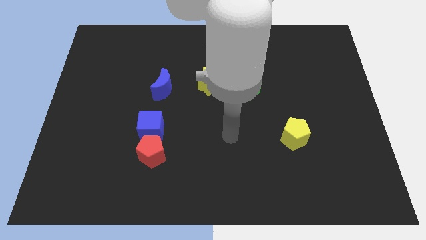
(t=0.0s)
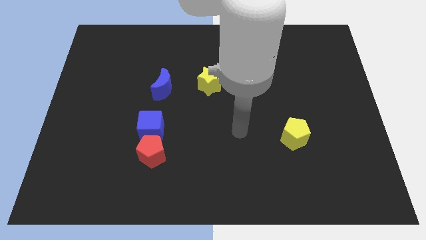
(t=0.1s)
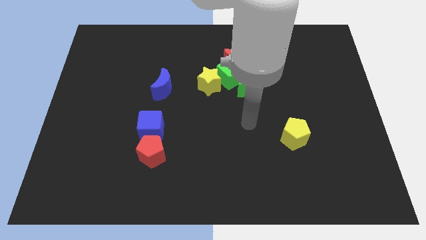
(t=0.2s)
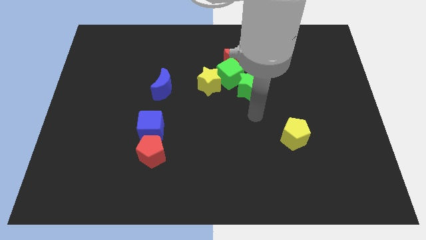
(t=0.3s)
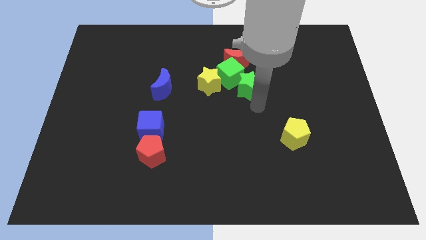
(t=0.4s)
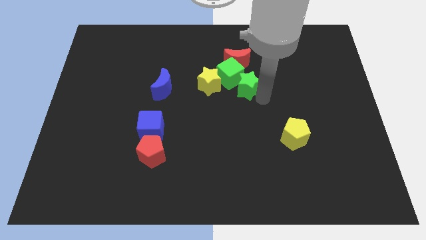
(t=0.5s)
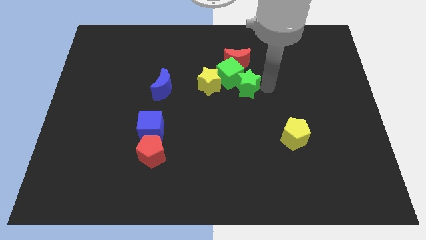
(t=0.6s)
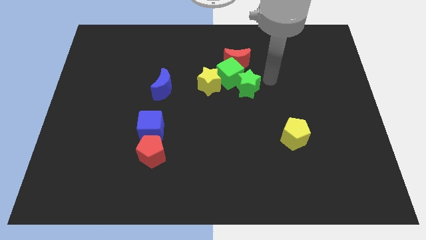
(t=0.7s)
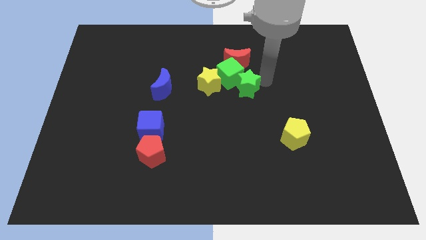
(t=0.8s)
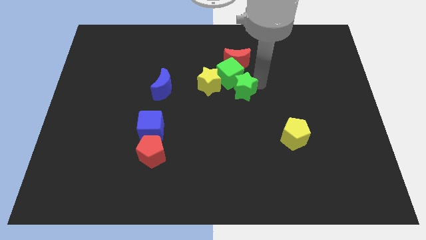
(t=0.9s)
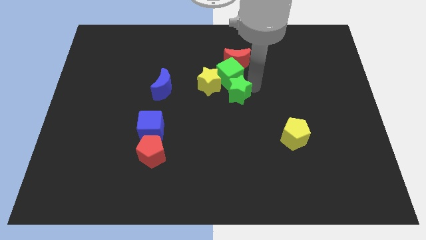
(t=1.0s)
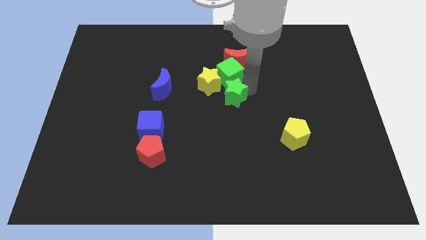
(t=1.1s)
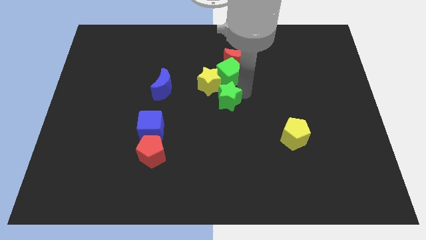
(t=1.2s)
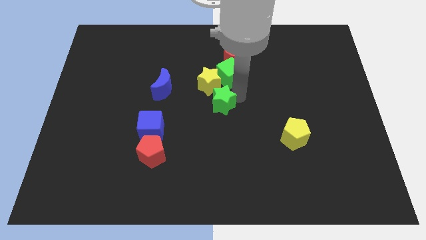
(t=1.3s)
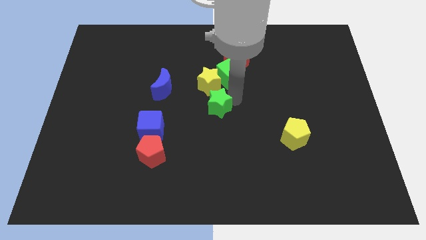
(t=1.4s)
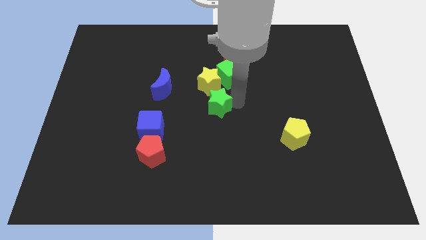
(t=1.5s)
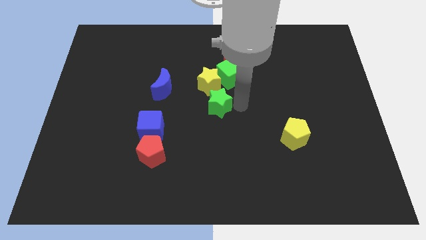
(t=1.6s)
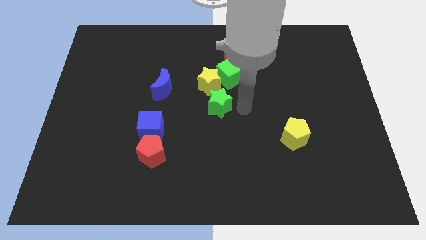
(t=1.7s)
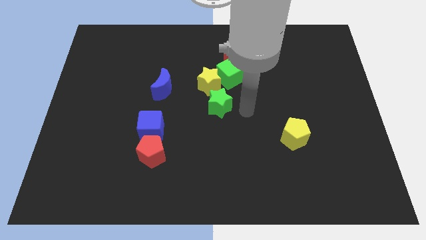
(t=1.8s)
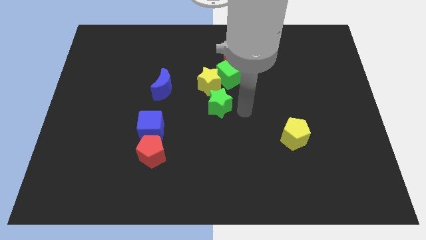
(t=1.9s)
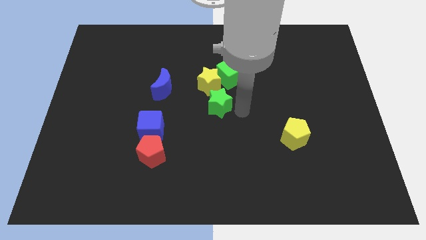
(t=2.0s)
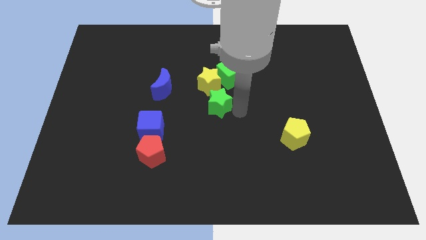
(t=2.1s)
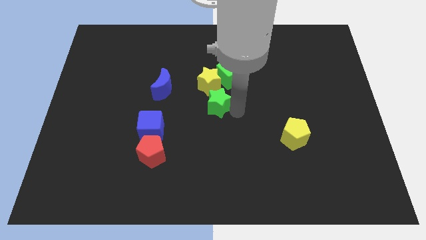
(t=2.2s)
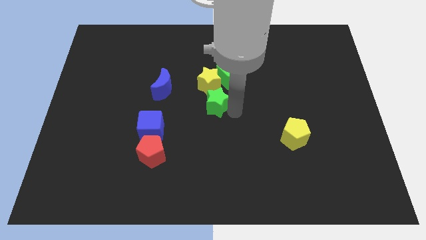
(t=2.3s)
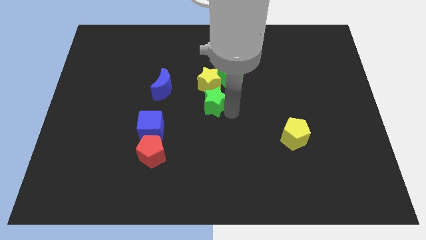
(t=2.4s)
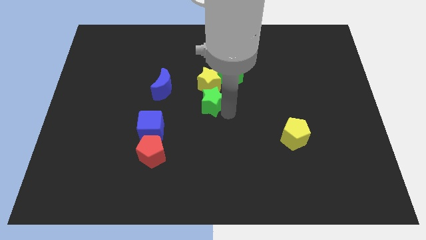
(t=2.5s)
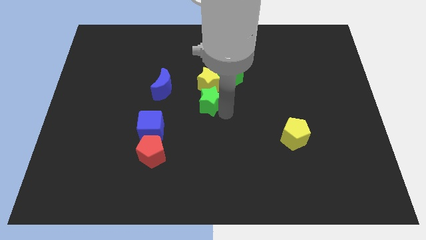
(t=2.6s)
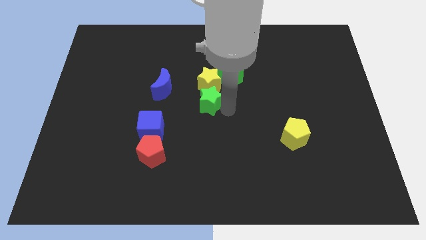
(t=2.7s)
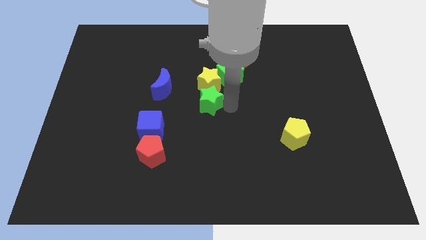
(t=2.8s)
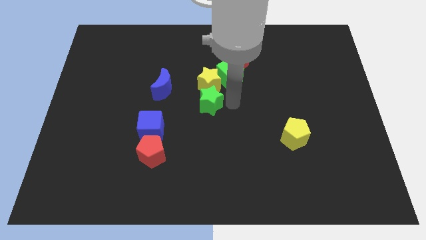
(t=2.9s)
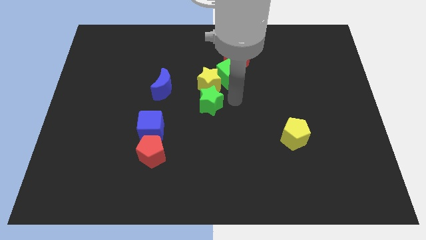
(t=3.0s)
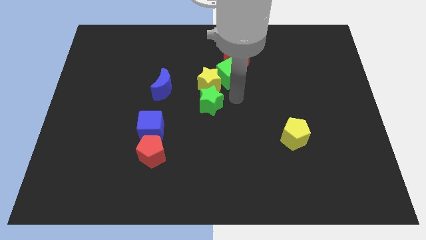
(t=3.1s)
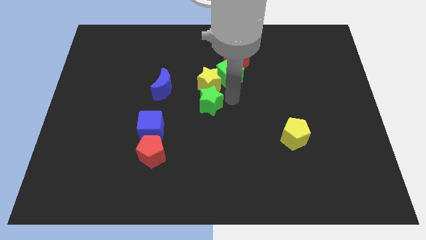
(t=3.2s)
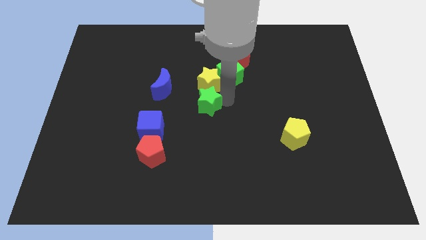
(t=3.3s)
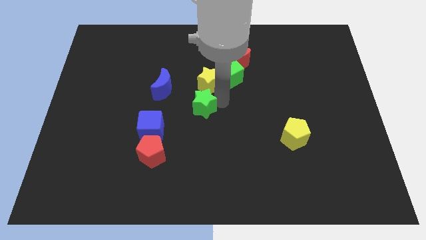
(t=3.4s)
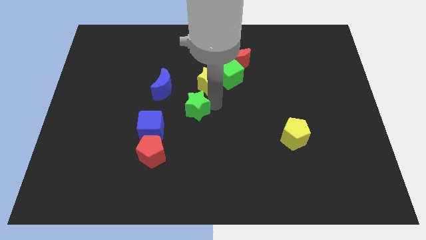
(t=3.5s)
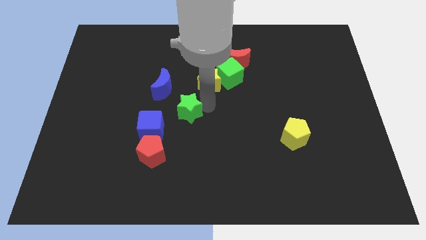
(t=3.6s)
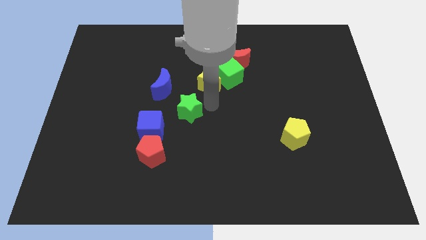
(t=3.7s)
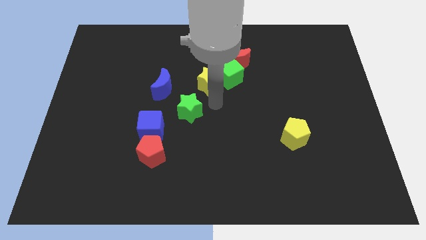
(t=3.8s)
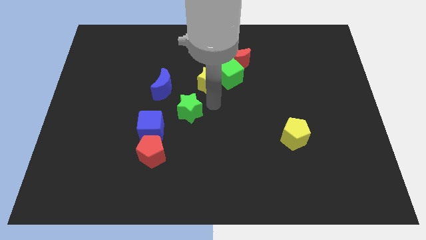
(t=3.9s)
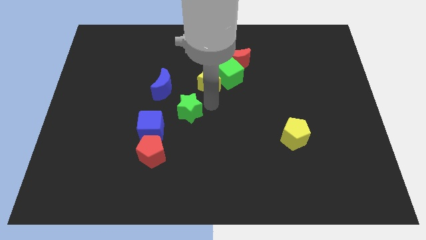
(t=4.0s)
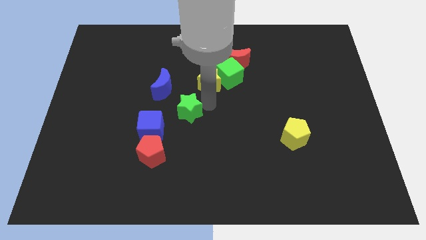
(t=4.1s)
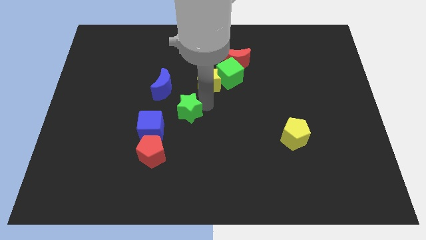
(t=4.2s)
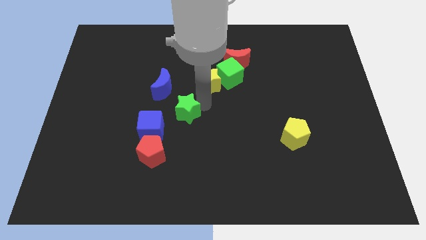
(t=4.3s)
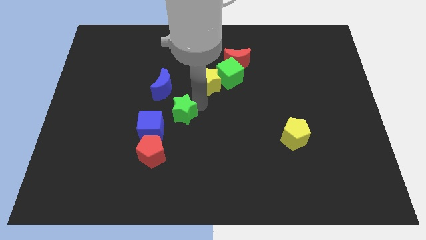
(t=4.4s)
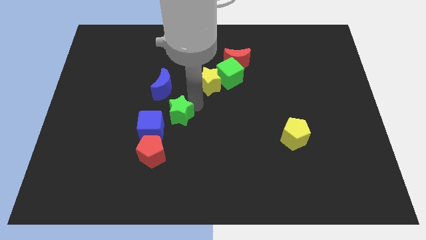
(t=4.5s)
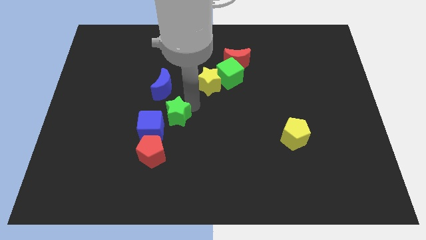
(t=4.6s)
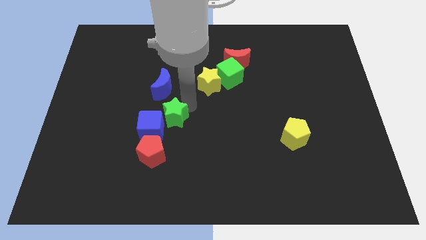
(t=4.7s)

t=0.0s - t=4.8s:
slide the green star close to the blue cube

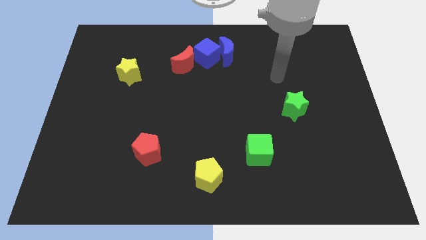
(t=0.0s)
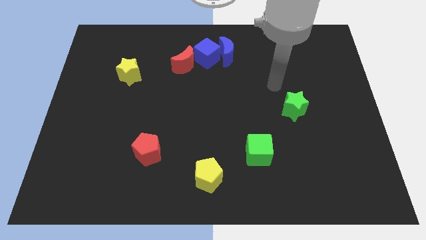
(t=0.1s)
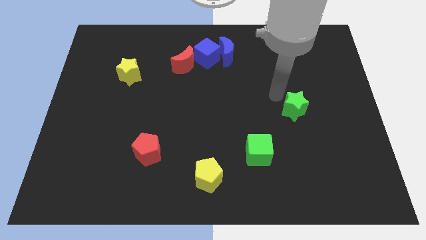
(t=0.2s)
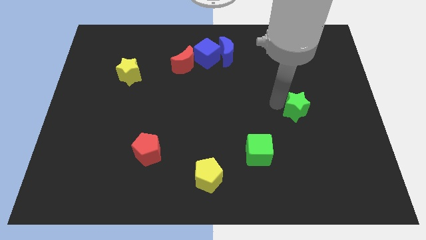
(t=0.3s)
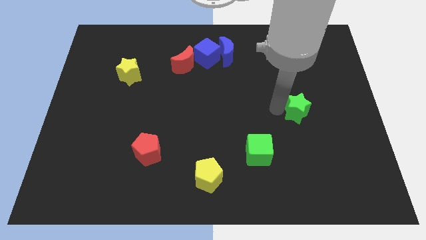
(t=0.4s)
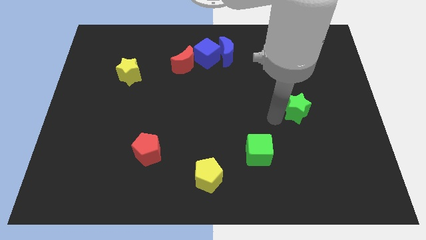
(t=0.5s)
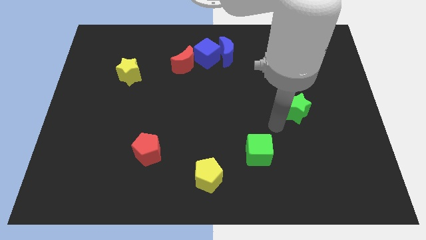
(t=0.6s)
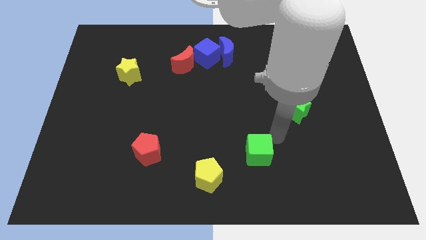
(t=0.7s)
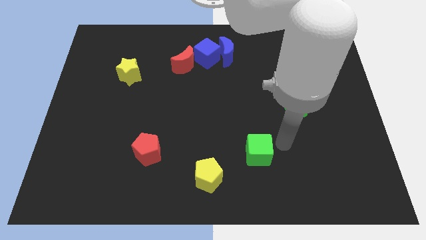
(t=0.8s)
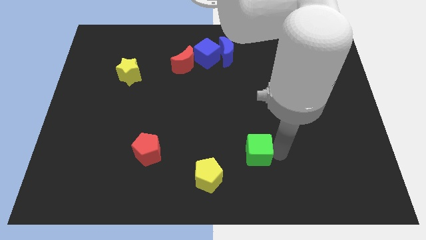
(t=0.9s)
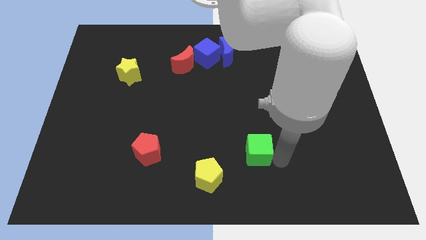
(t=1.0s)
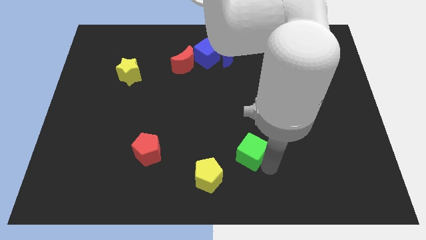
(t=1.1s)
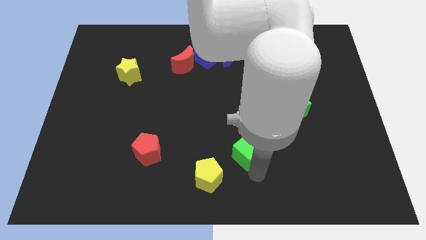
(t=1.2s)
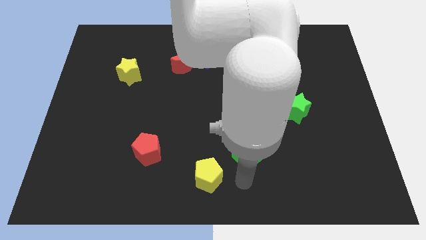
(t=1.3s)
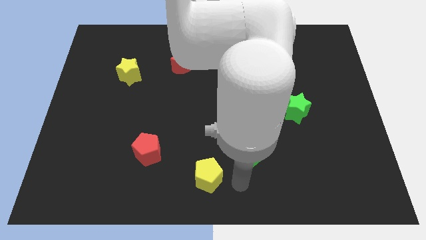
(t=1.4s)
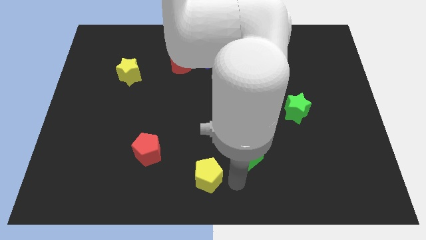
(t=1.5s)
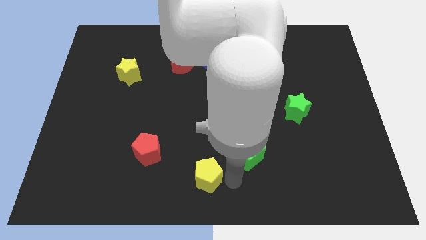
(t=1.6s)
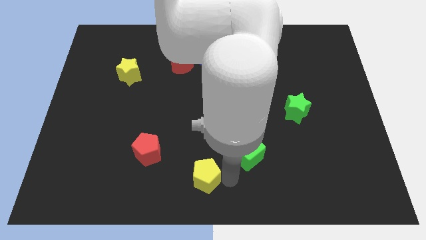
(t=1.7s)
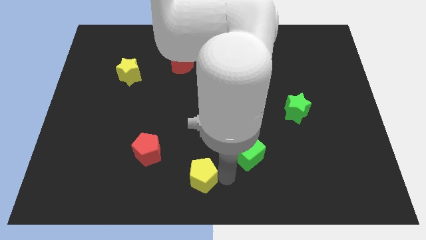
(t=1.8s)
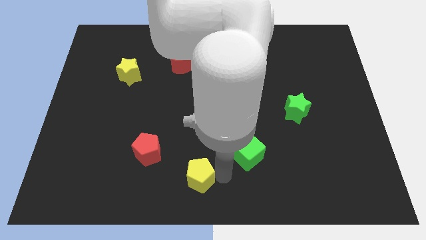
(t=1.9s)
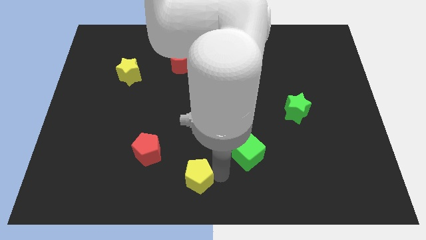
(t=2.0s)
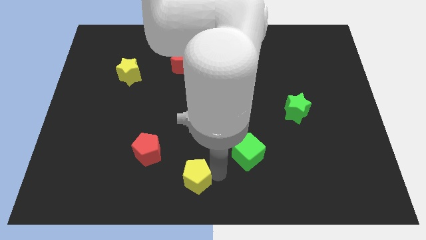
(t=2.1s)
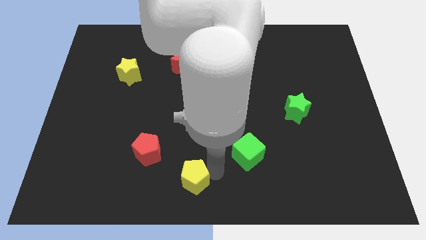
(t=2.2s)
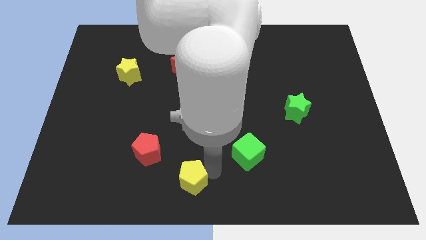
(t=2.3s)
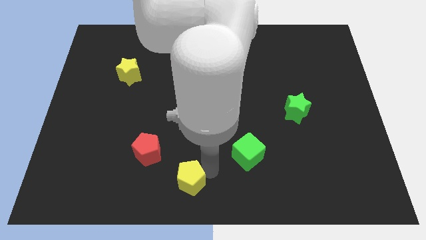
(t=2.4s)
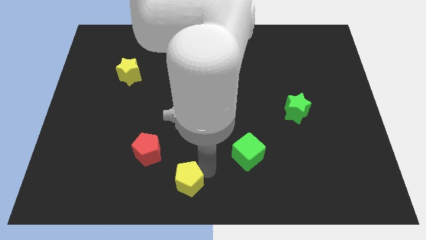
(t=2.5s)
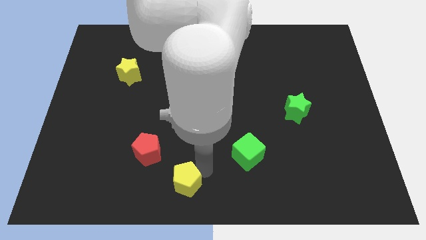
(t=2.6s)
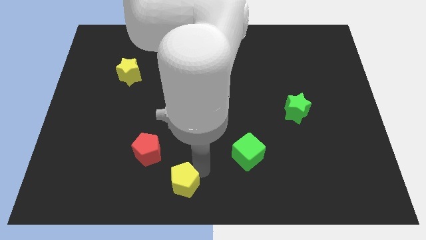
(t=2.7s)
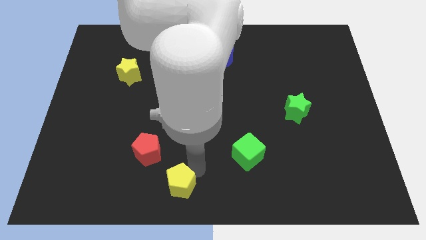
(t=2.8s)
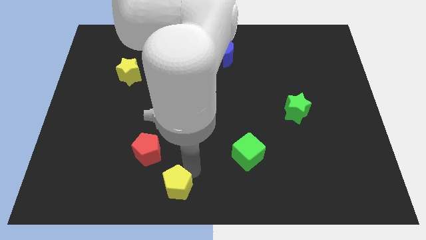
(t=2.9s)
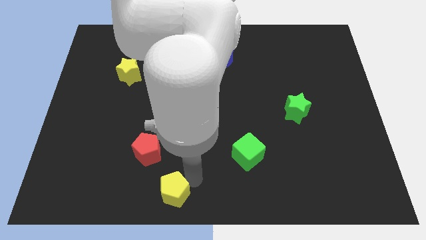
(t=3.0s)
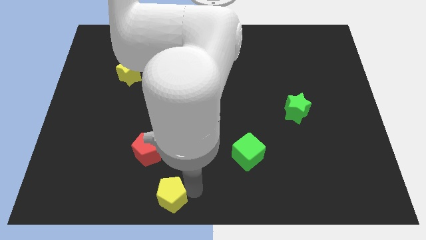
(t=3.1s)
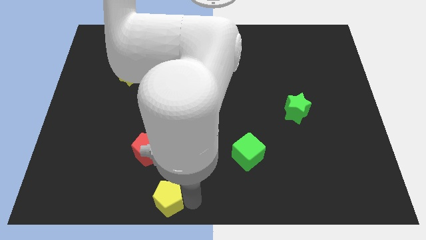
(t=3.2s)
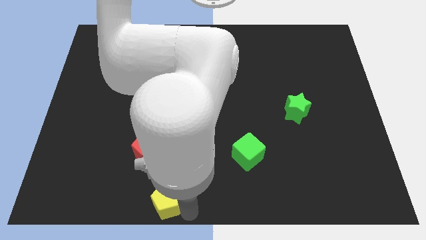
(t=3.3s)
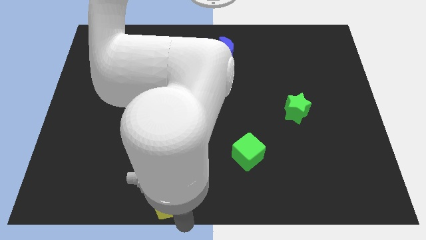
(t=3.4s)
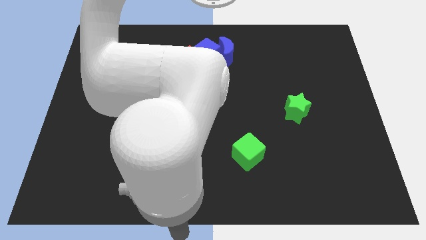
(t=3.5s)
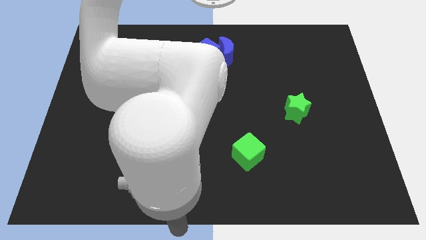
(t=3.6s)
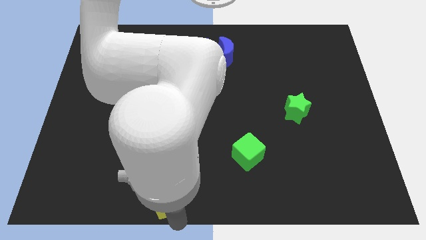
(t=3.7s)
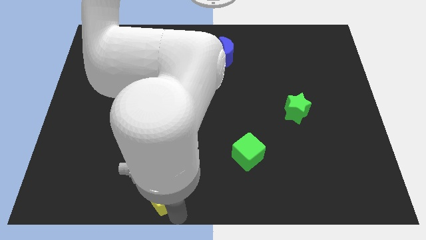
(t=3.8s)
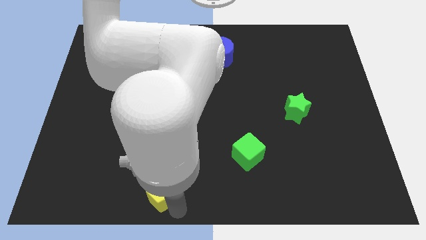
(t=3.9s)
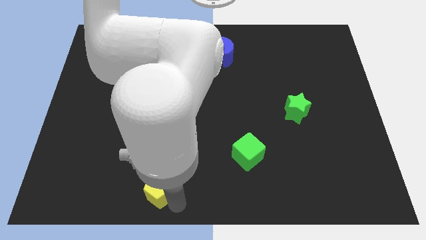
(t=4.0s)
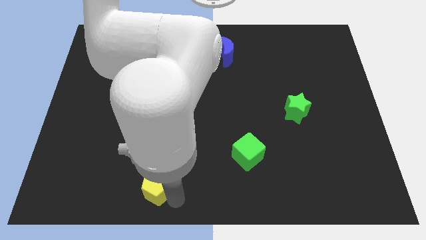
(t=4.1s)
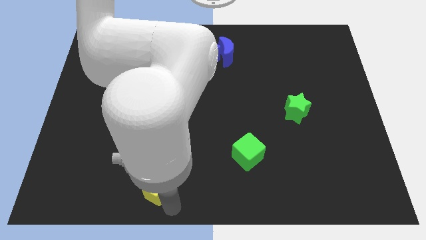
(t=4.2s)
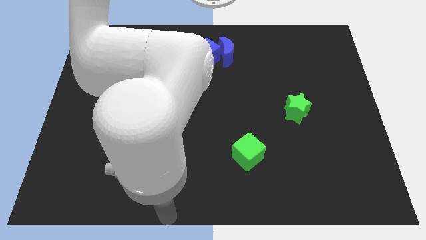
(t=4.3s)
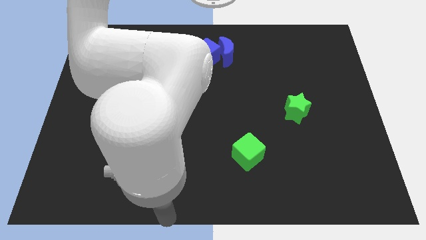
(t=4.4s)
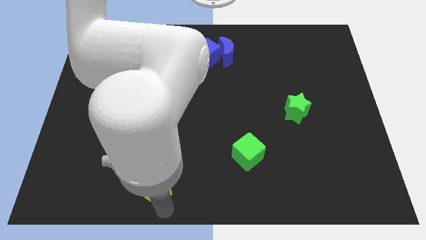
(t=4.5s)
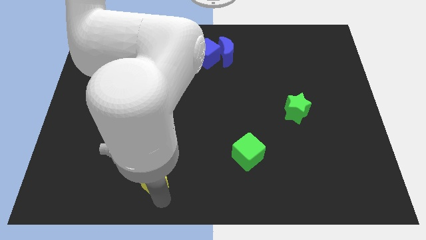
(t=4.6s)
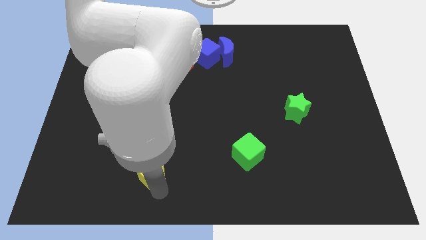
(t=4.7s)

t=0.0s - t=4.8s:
slide the yellow pentagon next to the red pentagon
